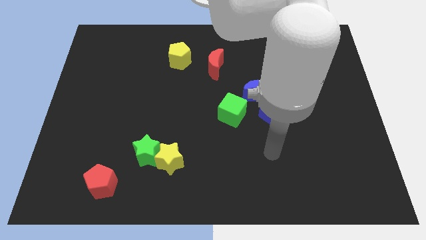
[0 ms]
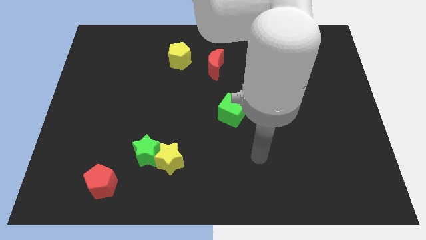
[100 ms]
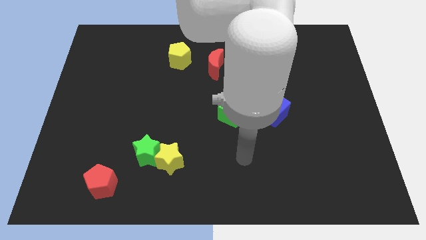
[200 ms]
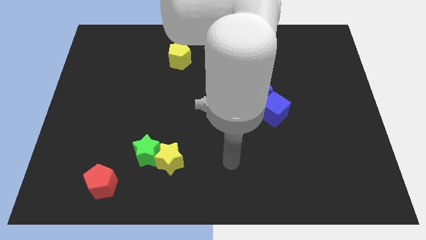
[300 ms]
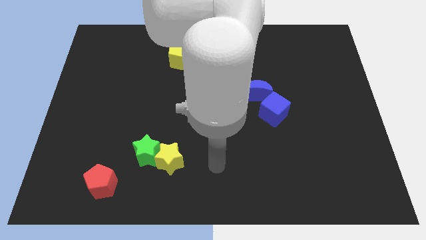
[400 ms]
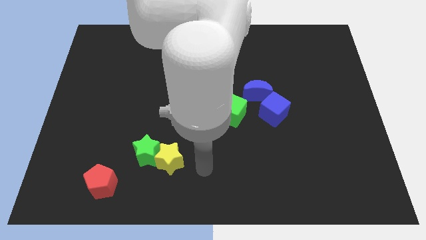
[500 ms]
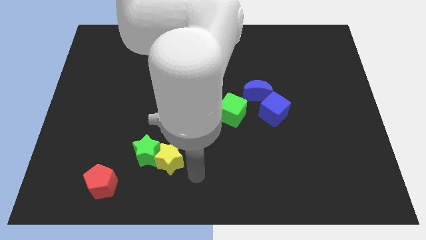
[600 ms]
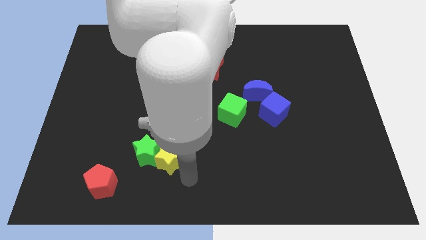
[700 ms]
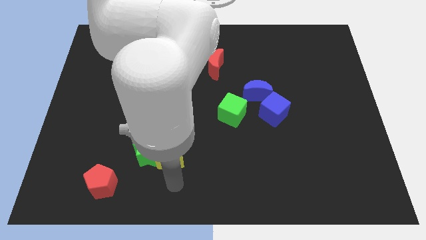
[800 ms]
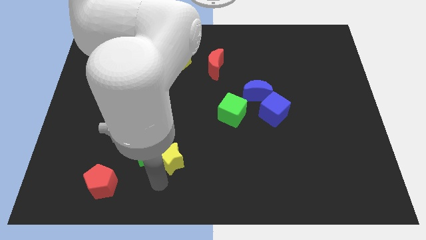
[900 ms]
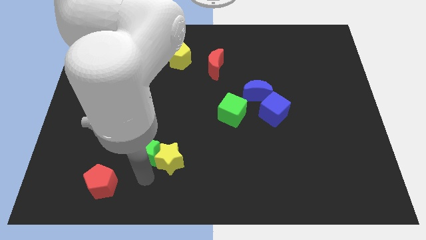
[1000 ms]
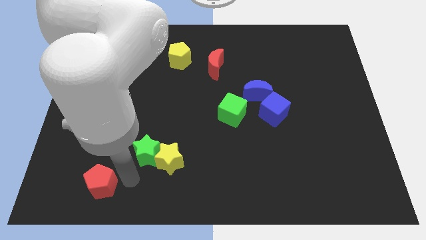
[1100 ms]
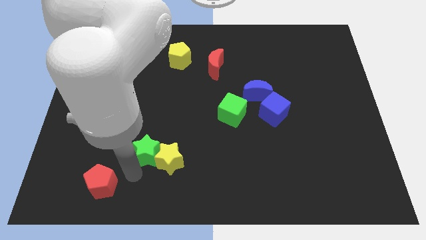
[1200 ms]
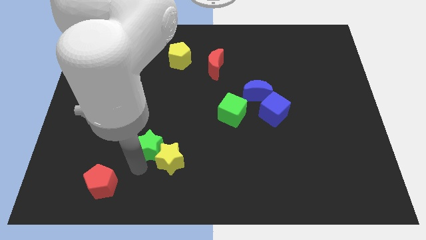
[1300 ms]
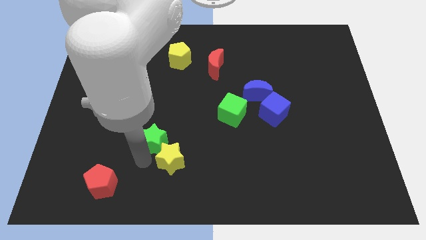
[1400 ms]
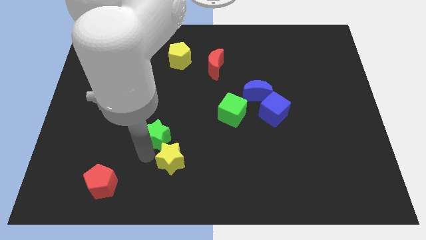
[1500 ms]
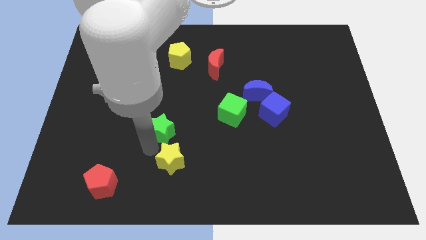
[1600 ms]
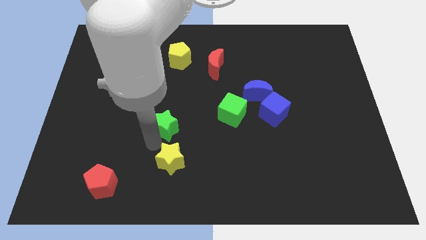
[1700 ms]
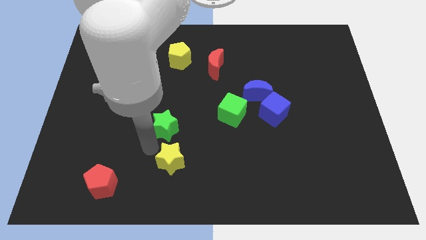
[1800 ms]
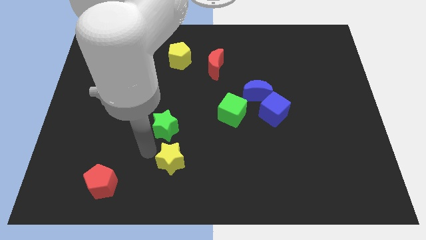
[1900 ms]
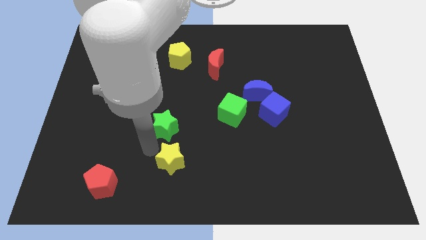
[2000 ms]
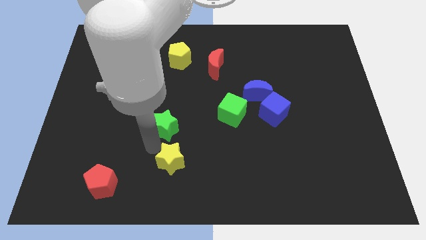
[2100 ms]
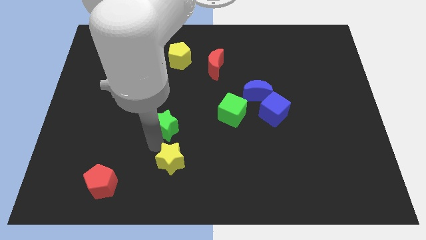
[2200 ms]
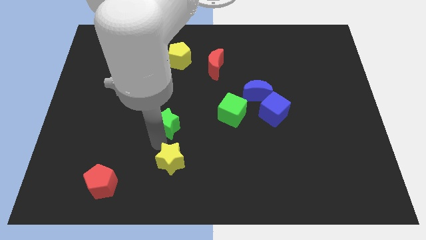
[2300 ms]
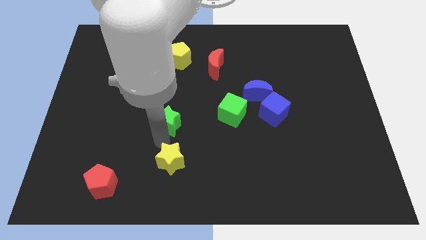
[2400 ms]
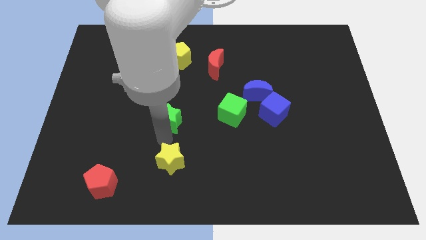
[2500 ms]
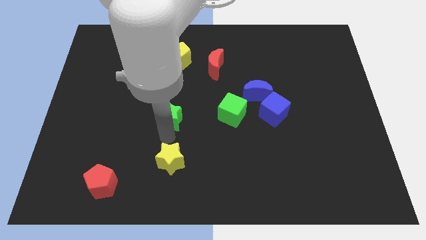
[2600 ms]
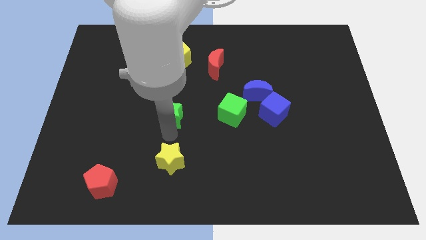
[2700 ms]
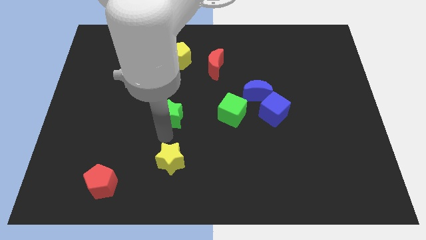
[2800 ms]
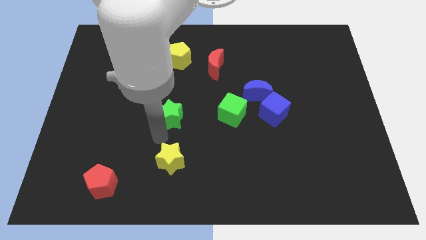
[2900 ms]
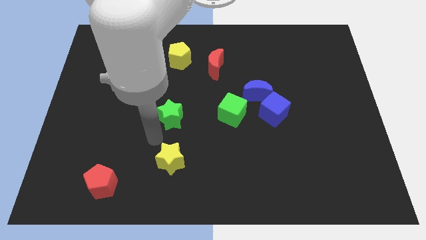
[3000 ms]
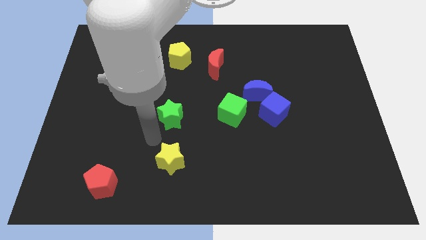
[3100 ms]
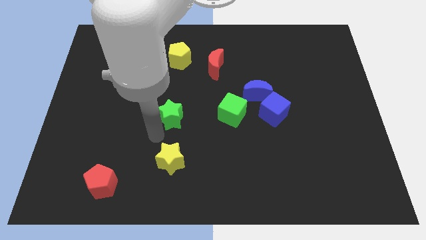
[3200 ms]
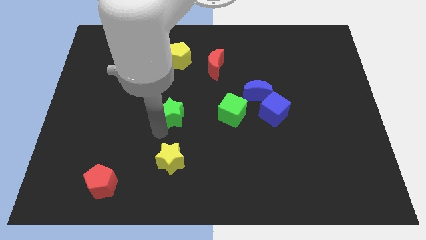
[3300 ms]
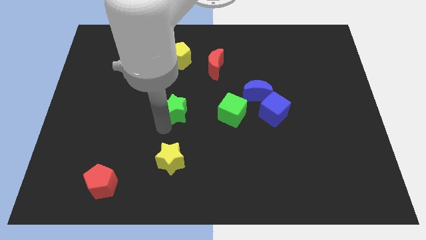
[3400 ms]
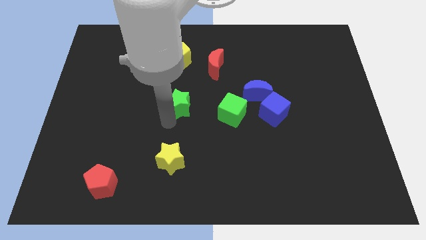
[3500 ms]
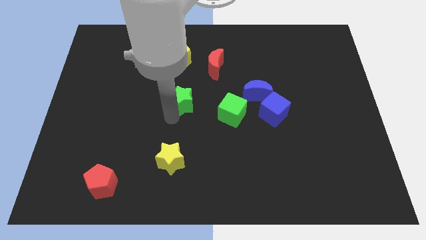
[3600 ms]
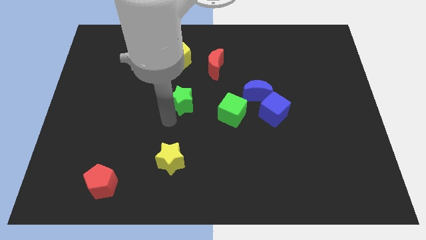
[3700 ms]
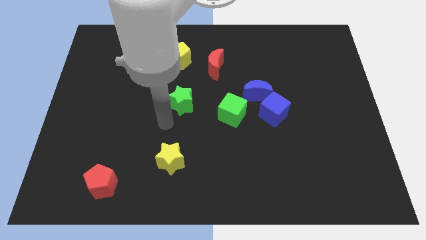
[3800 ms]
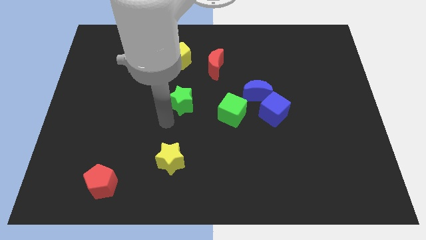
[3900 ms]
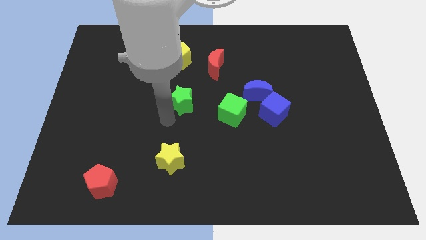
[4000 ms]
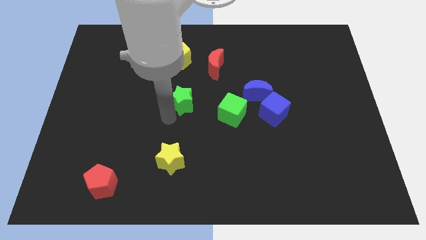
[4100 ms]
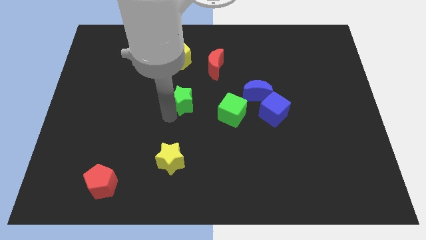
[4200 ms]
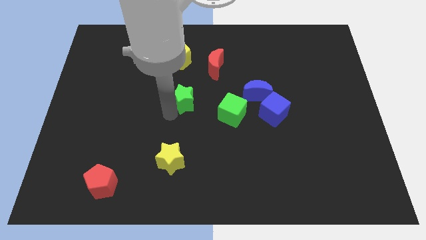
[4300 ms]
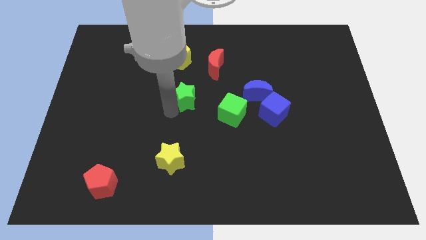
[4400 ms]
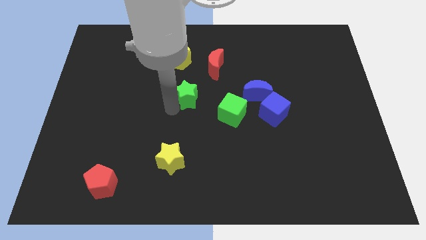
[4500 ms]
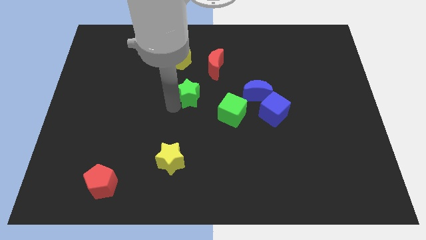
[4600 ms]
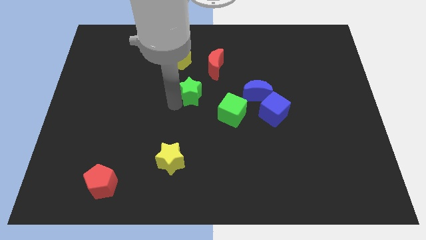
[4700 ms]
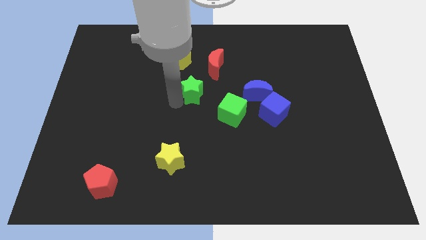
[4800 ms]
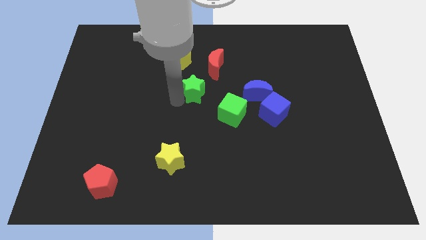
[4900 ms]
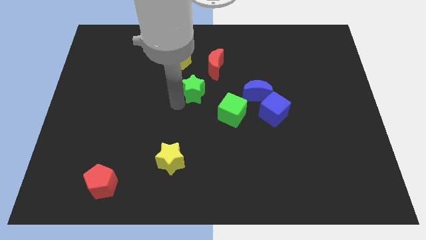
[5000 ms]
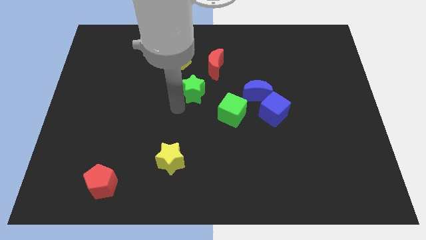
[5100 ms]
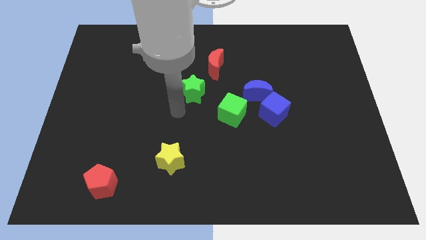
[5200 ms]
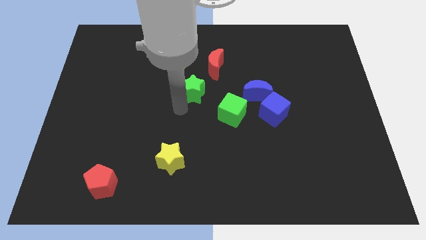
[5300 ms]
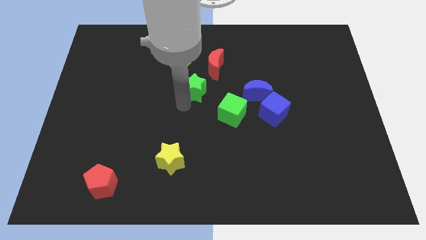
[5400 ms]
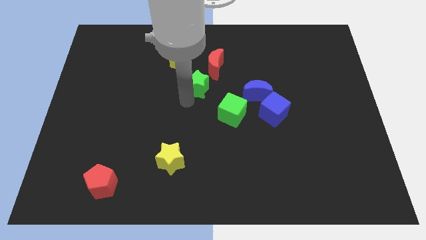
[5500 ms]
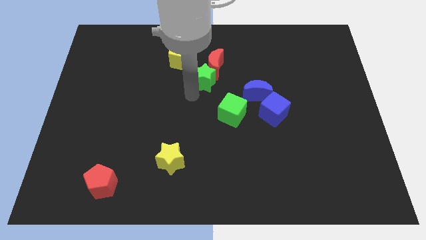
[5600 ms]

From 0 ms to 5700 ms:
put the green star close to the red moon

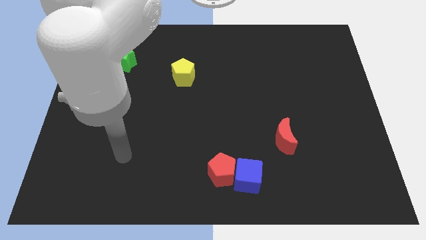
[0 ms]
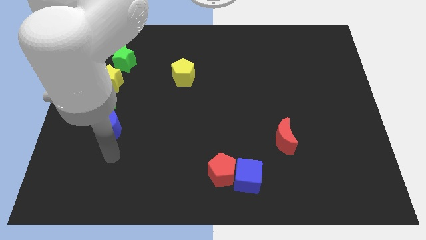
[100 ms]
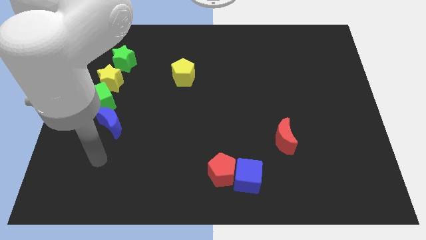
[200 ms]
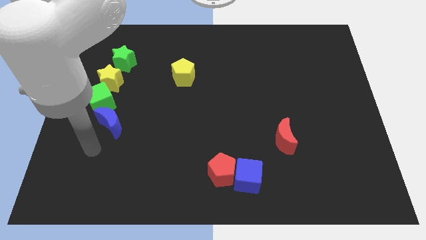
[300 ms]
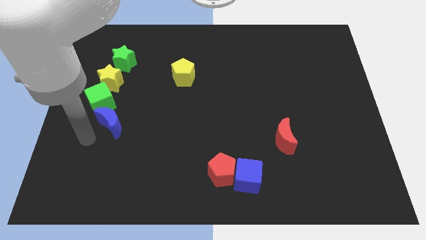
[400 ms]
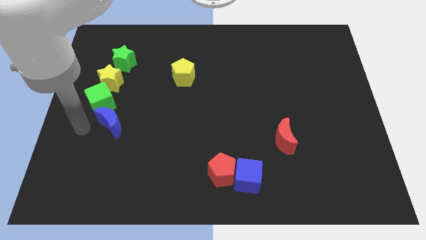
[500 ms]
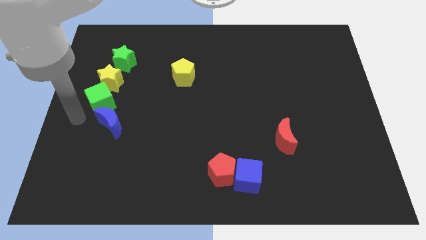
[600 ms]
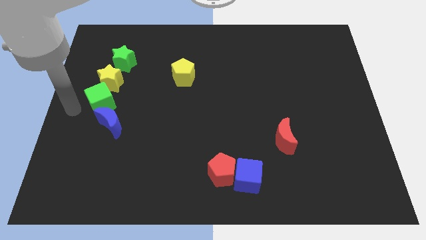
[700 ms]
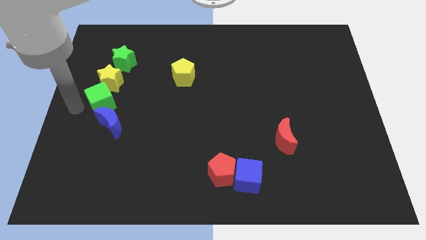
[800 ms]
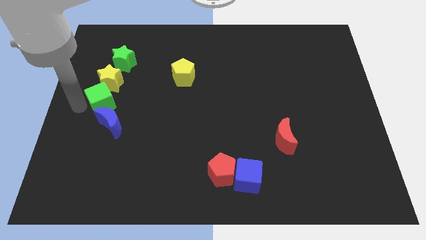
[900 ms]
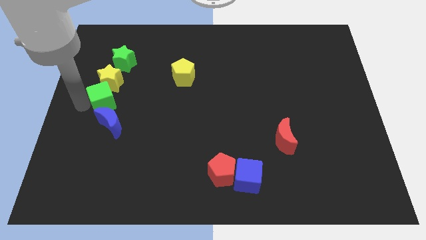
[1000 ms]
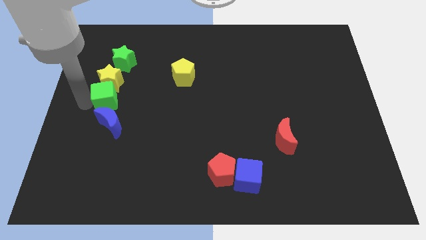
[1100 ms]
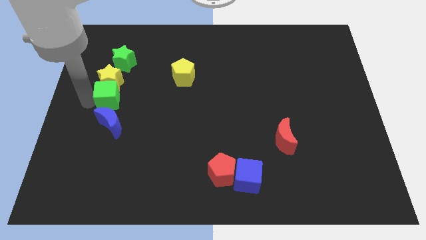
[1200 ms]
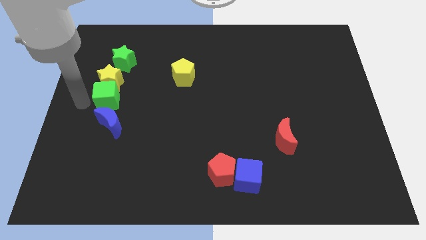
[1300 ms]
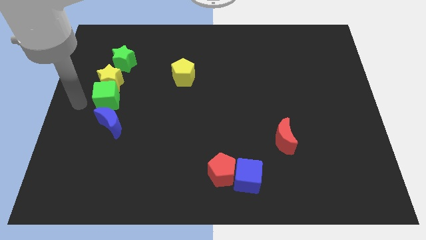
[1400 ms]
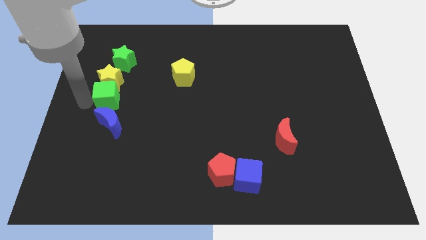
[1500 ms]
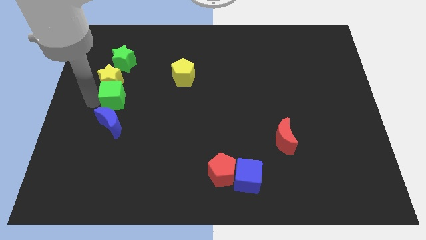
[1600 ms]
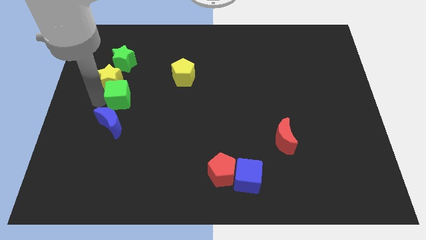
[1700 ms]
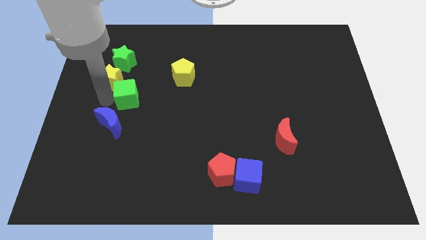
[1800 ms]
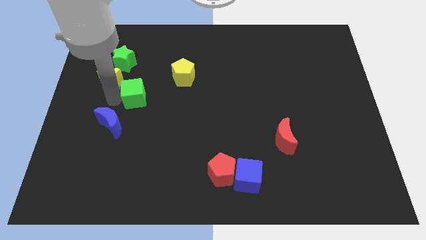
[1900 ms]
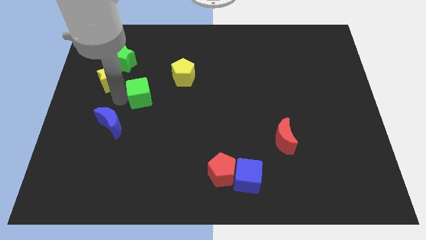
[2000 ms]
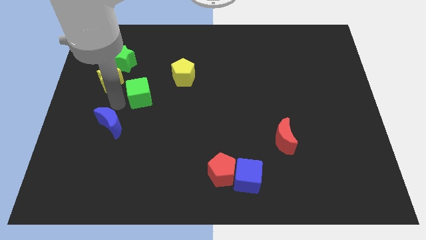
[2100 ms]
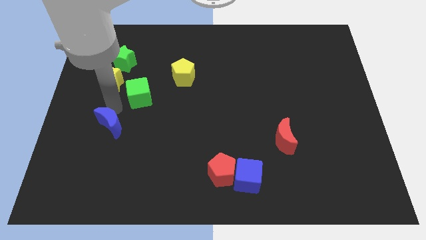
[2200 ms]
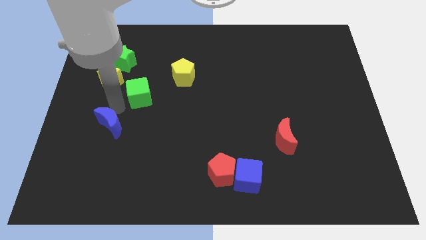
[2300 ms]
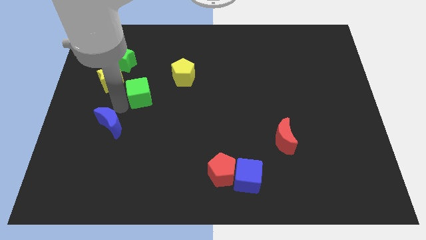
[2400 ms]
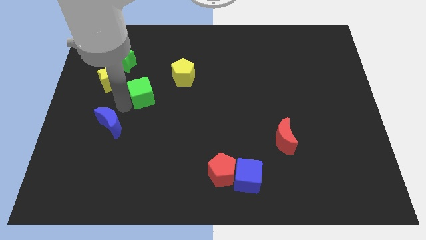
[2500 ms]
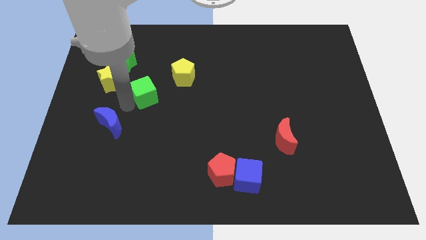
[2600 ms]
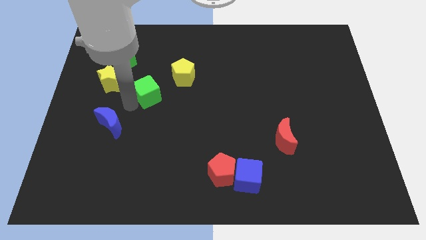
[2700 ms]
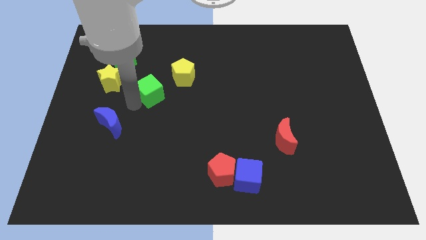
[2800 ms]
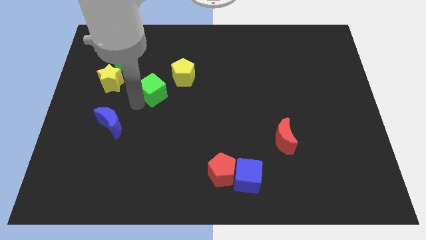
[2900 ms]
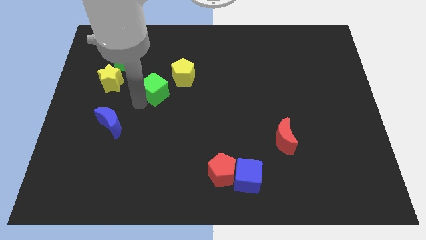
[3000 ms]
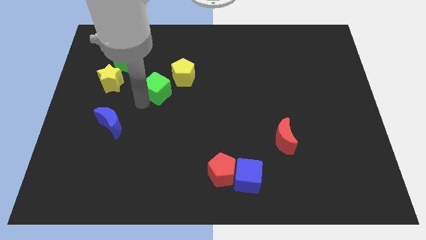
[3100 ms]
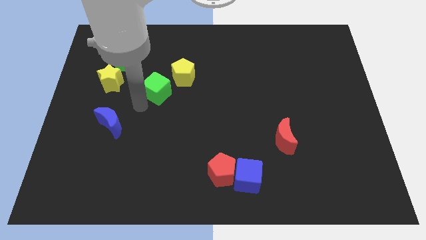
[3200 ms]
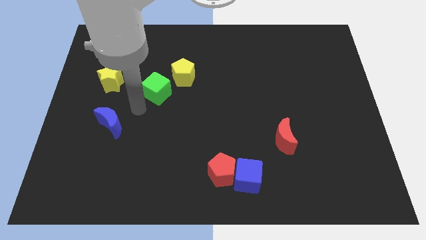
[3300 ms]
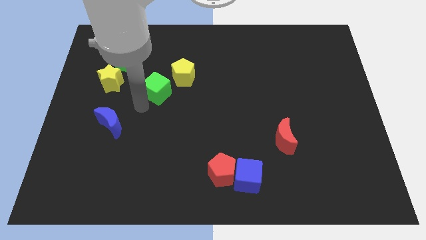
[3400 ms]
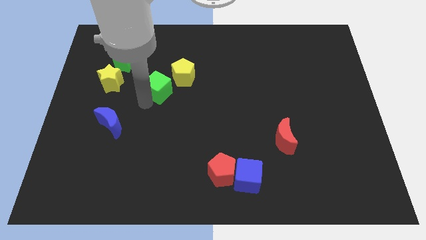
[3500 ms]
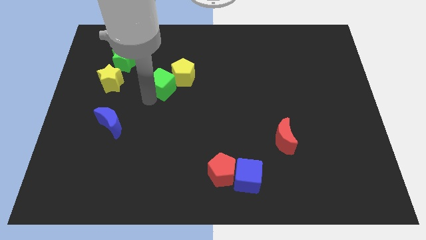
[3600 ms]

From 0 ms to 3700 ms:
slide the green cube towards the yellow pentagon
